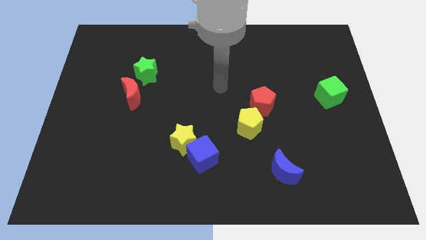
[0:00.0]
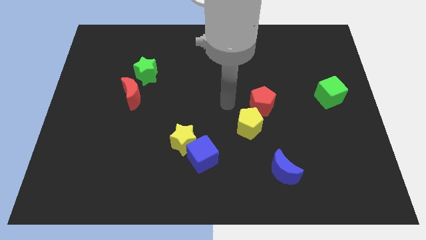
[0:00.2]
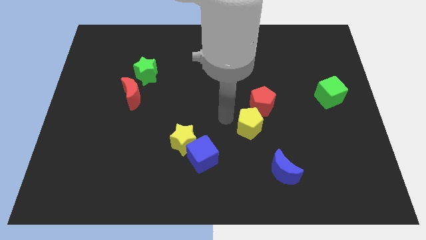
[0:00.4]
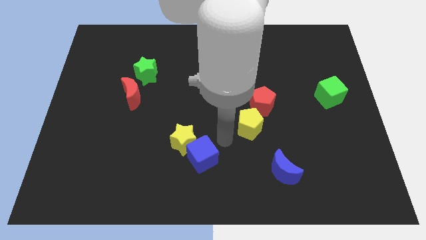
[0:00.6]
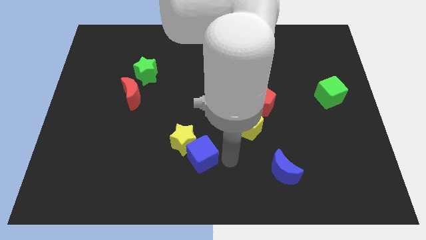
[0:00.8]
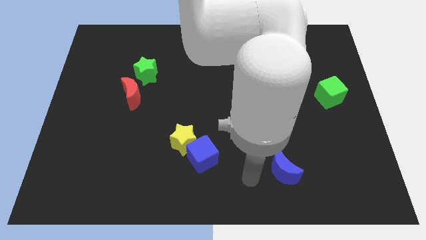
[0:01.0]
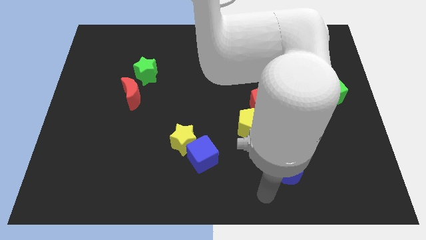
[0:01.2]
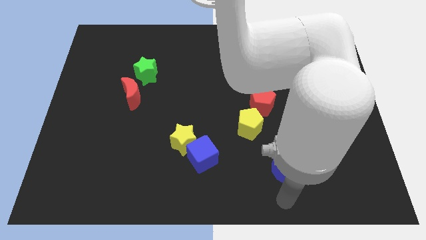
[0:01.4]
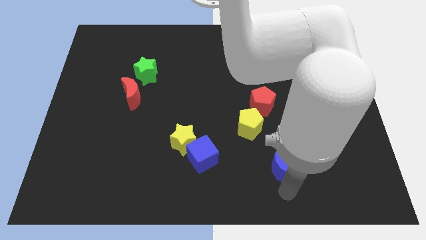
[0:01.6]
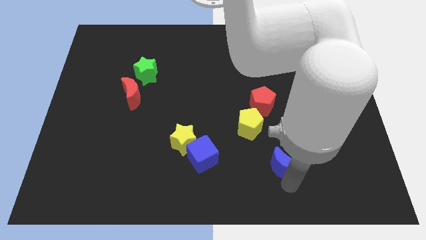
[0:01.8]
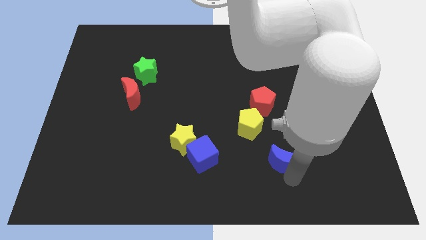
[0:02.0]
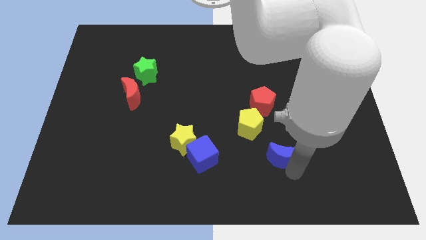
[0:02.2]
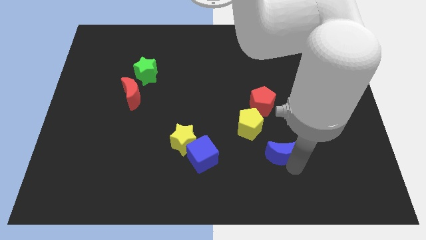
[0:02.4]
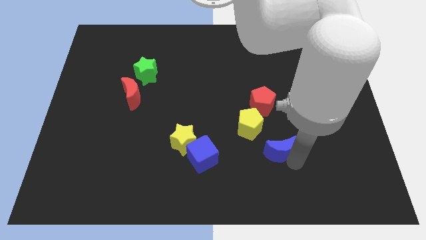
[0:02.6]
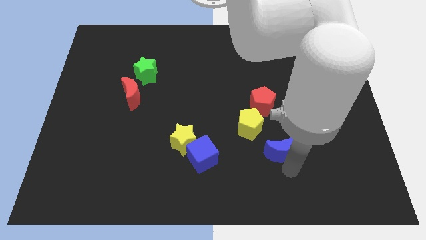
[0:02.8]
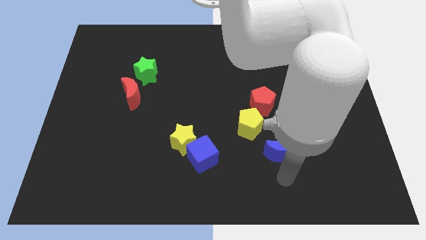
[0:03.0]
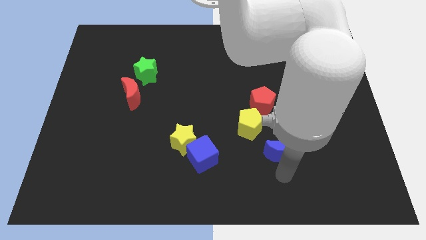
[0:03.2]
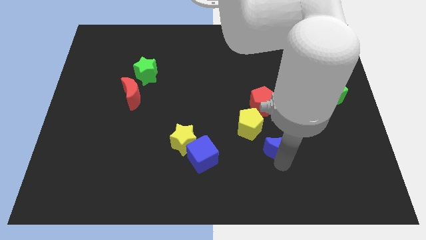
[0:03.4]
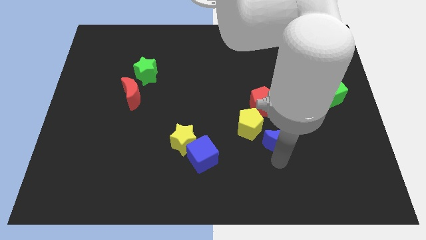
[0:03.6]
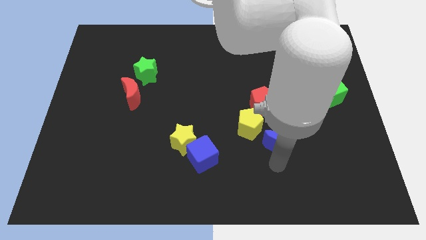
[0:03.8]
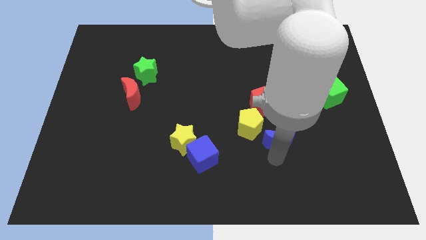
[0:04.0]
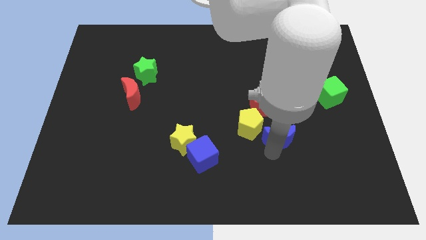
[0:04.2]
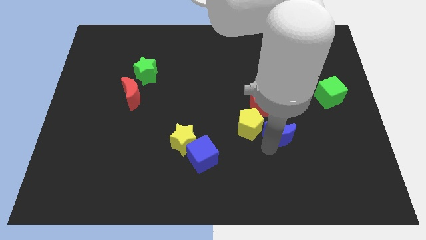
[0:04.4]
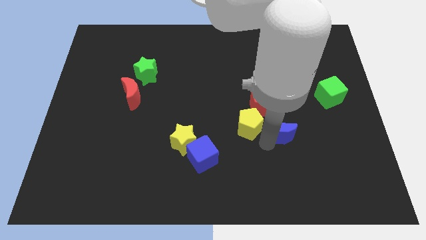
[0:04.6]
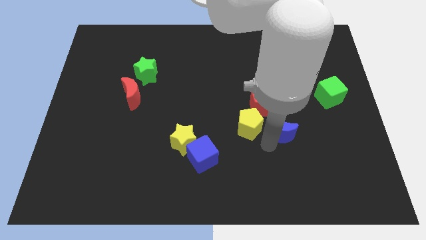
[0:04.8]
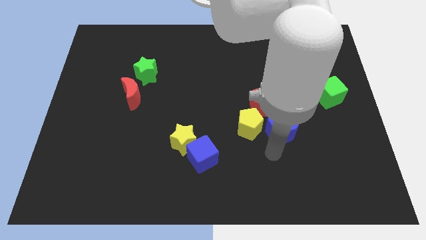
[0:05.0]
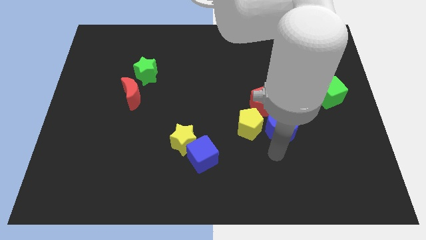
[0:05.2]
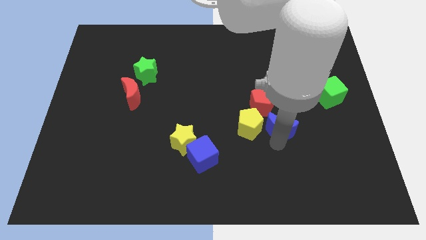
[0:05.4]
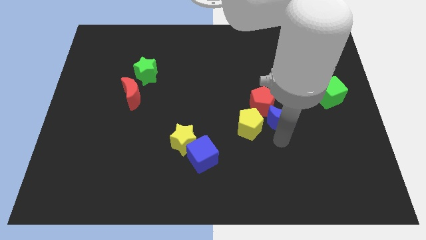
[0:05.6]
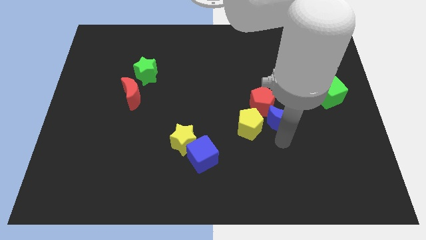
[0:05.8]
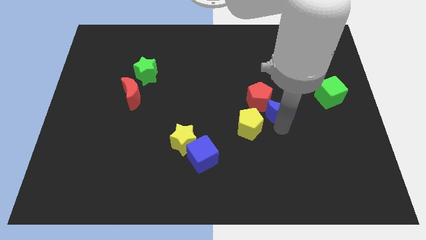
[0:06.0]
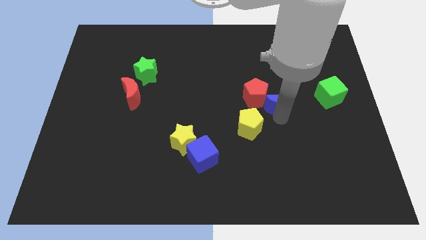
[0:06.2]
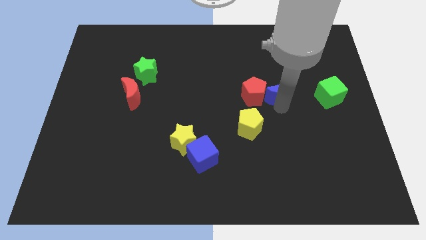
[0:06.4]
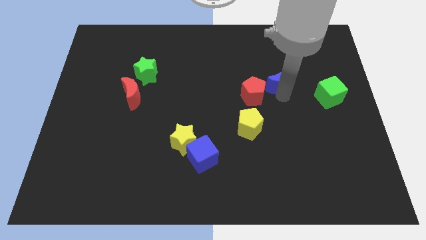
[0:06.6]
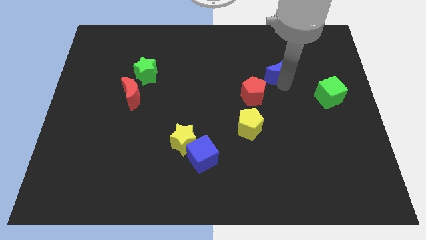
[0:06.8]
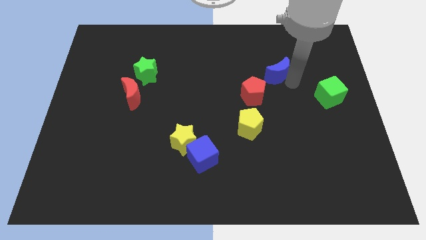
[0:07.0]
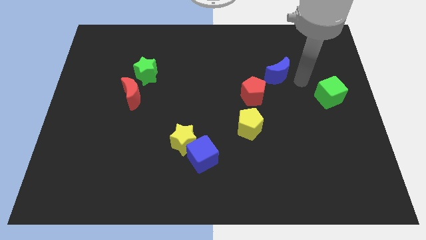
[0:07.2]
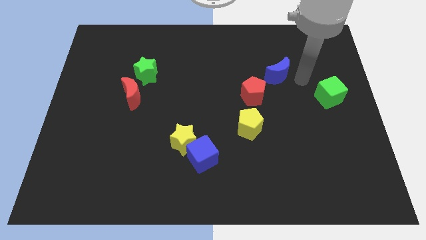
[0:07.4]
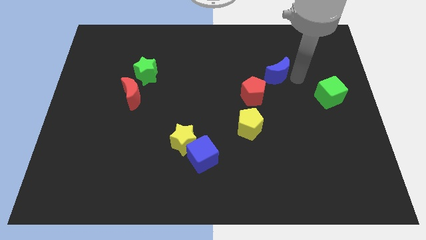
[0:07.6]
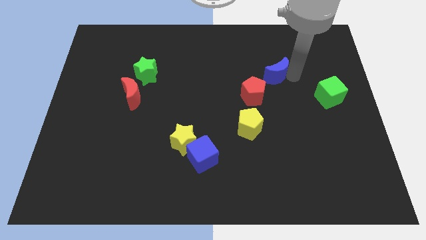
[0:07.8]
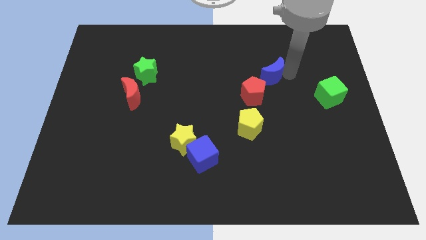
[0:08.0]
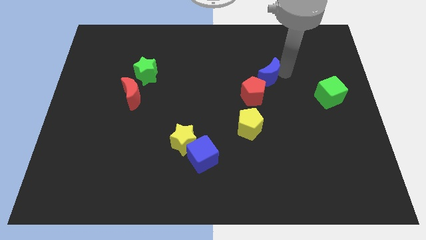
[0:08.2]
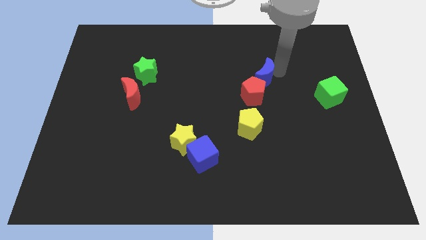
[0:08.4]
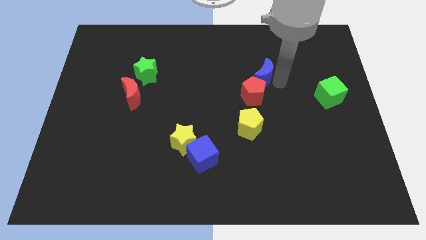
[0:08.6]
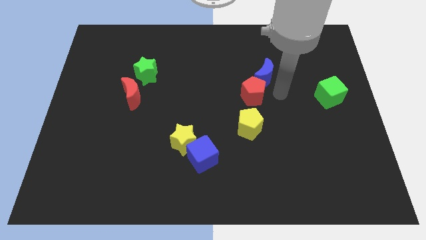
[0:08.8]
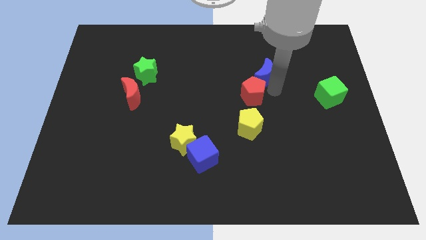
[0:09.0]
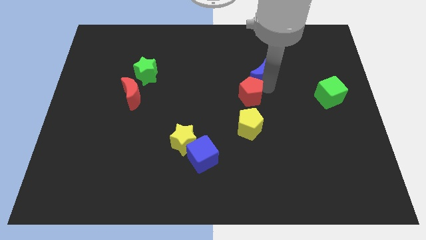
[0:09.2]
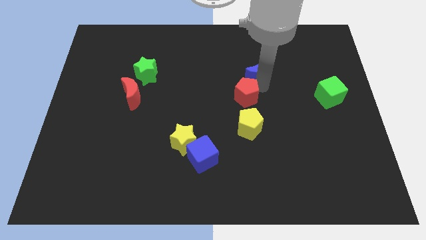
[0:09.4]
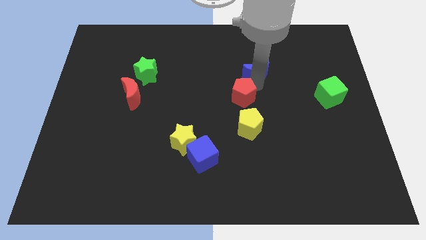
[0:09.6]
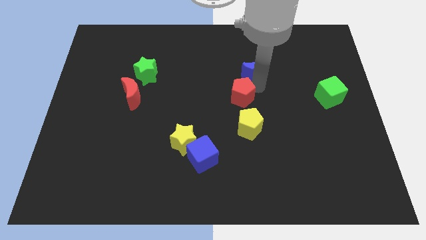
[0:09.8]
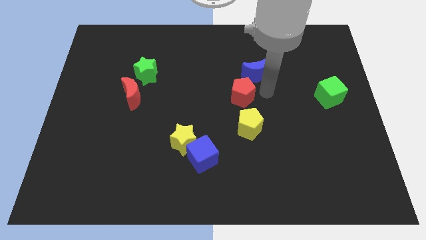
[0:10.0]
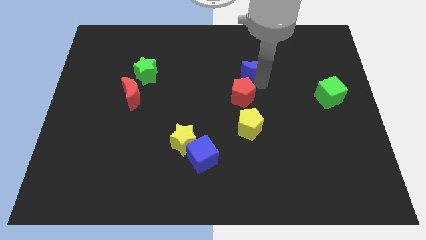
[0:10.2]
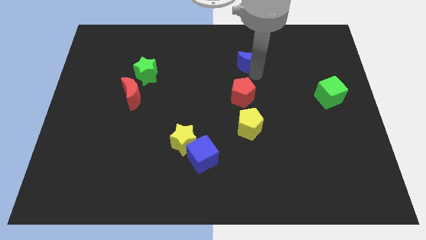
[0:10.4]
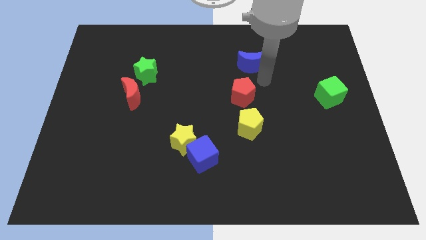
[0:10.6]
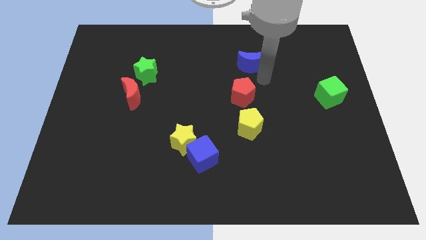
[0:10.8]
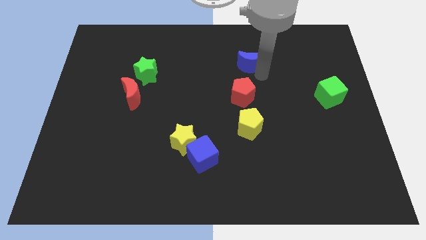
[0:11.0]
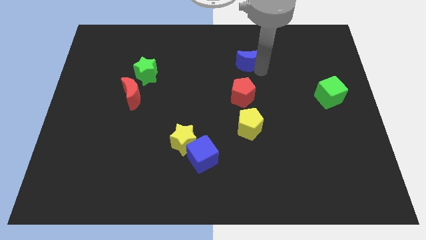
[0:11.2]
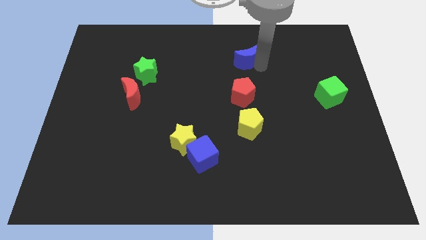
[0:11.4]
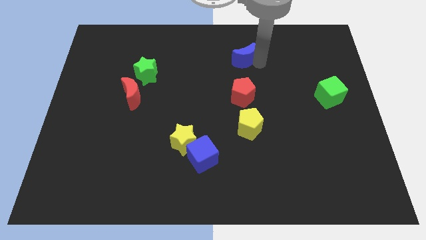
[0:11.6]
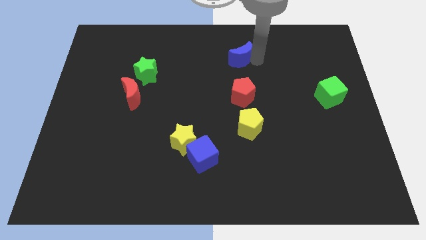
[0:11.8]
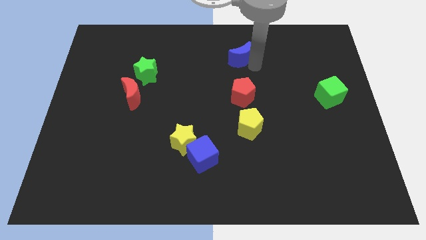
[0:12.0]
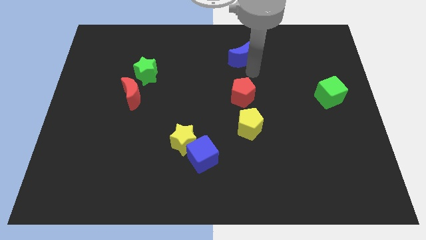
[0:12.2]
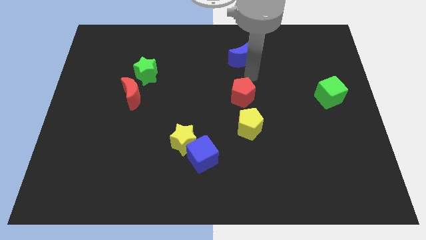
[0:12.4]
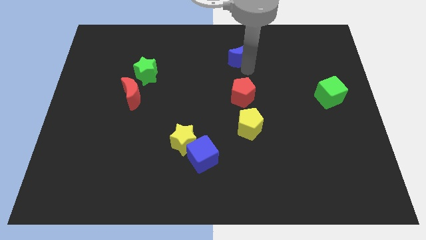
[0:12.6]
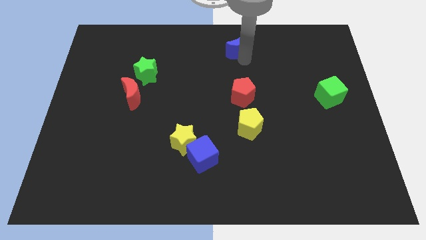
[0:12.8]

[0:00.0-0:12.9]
move the blue moon to the top side
